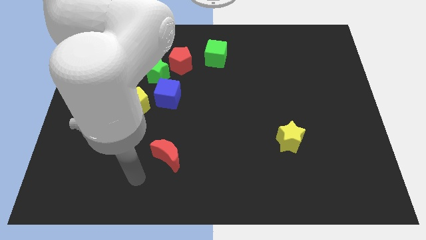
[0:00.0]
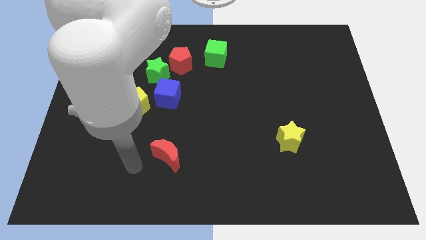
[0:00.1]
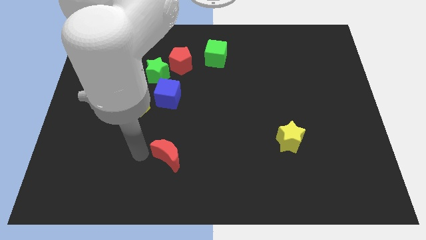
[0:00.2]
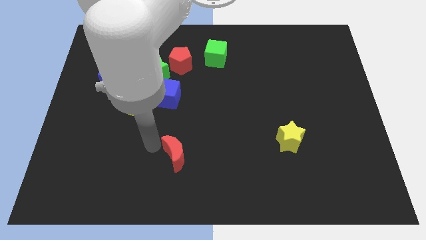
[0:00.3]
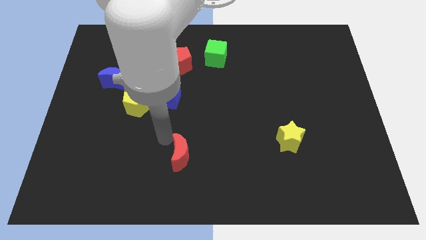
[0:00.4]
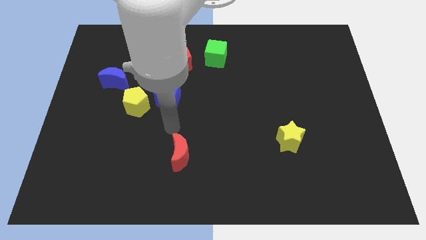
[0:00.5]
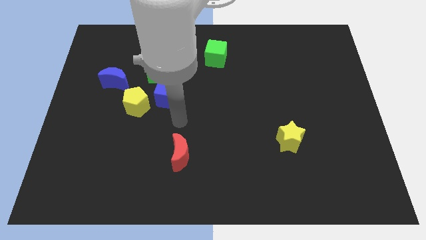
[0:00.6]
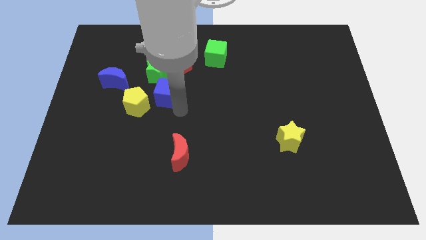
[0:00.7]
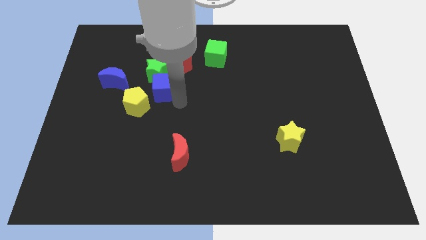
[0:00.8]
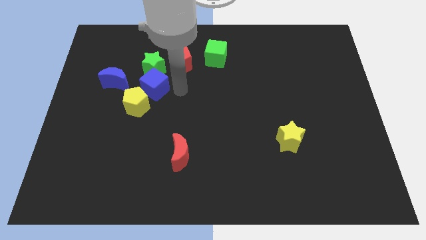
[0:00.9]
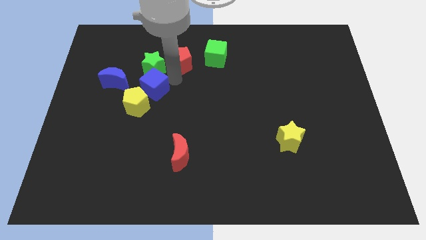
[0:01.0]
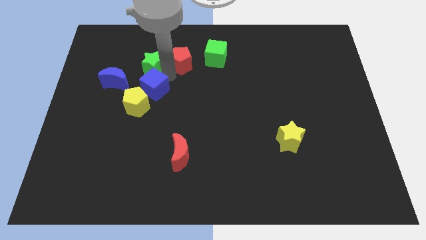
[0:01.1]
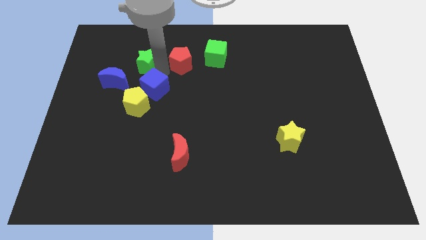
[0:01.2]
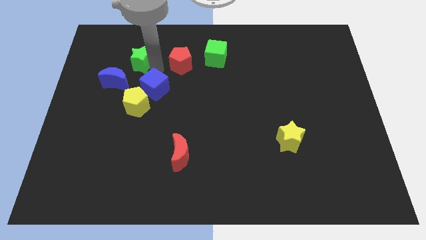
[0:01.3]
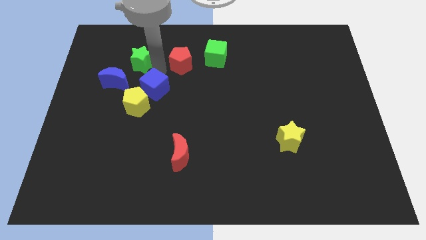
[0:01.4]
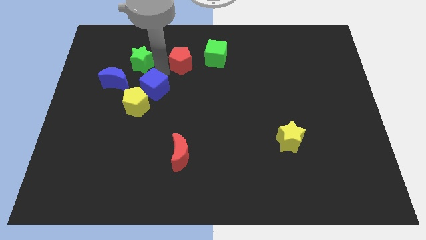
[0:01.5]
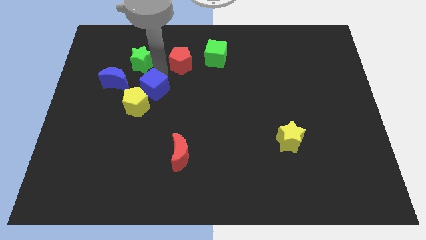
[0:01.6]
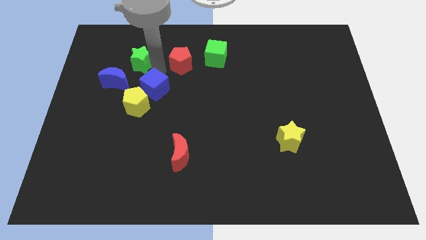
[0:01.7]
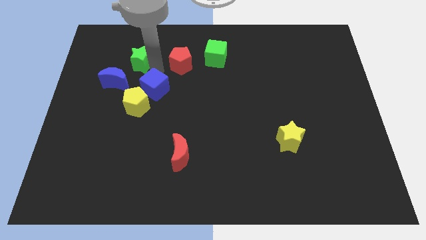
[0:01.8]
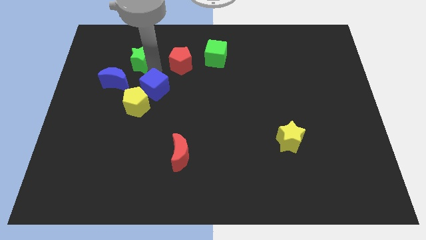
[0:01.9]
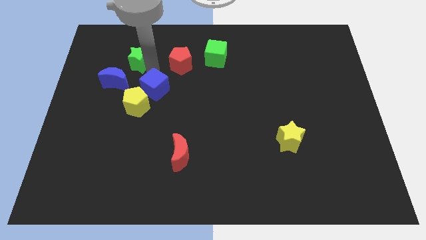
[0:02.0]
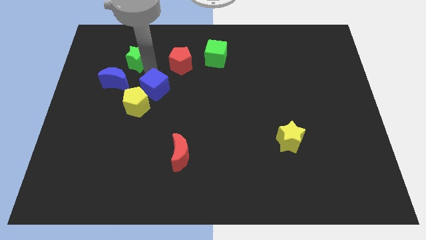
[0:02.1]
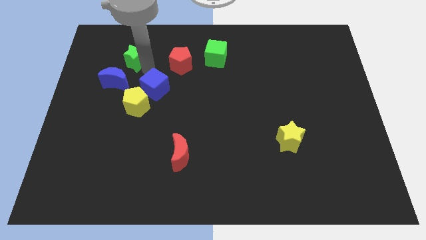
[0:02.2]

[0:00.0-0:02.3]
pull the green star apart from the red pentagon and blue cube

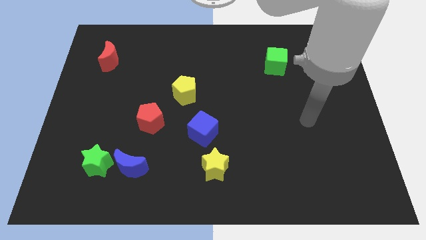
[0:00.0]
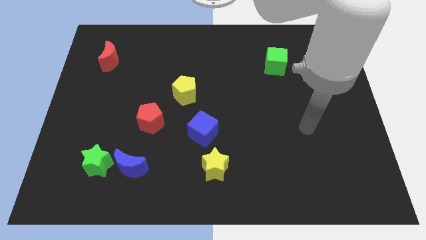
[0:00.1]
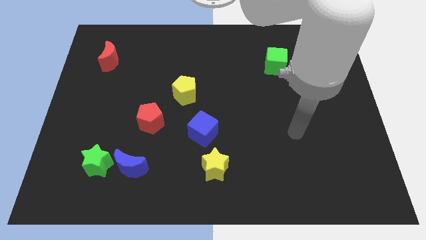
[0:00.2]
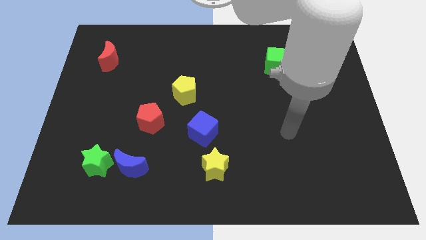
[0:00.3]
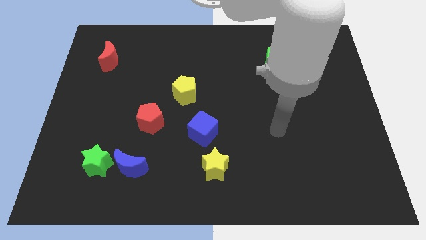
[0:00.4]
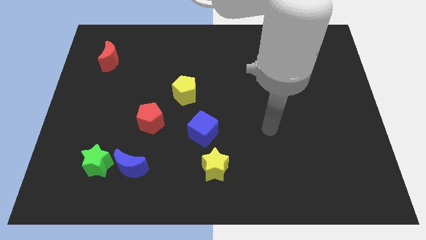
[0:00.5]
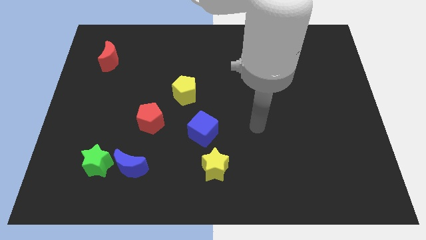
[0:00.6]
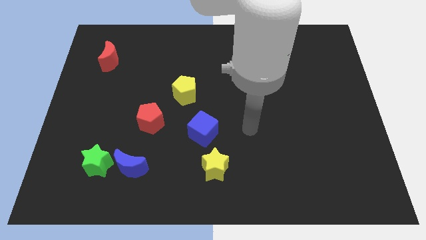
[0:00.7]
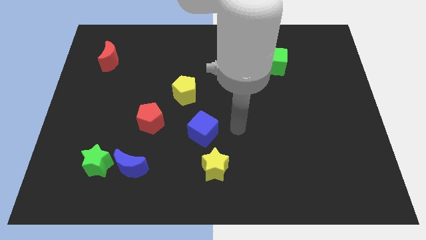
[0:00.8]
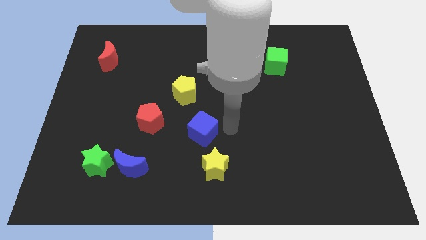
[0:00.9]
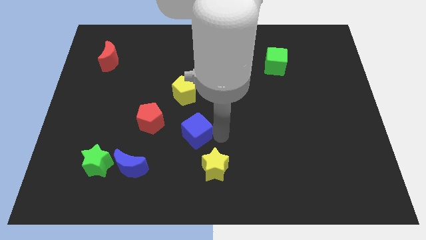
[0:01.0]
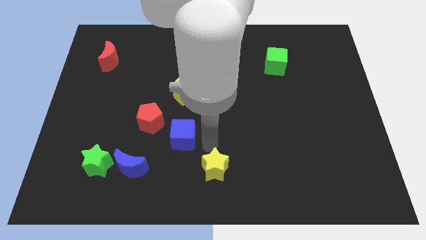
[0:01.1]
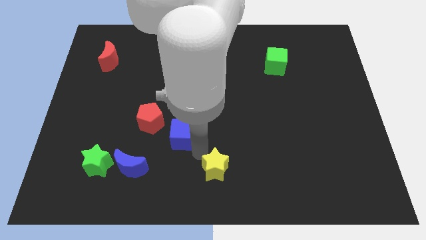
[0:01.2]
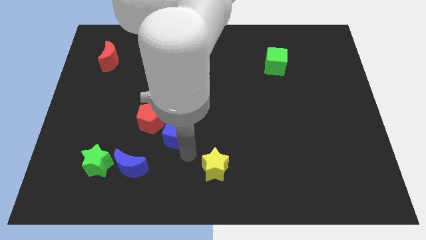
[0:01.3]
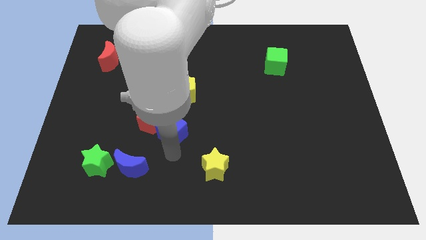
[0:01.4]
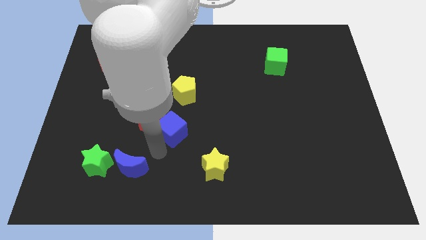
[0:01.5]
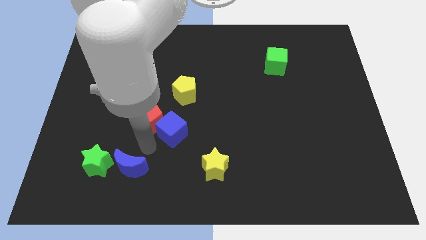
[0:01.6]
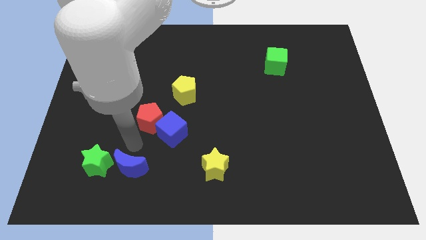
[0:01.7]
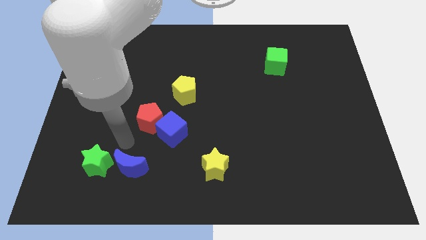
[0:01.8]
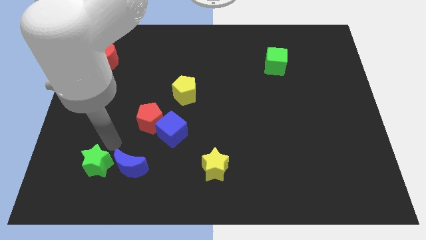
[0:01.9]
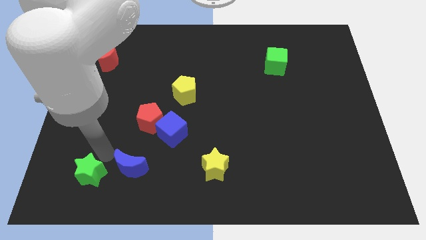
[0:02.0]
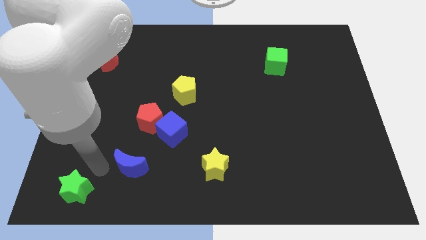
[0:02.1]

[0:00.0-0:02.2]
separate the blue moon from the green star

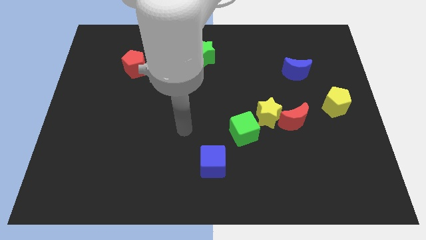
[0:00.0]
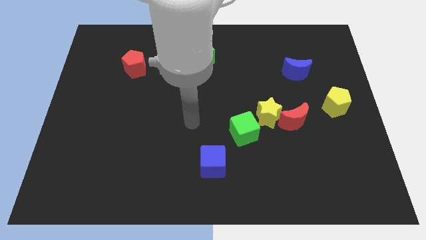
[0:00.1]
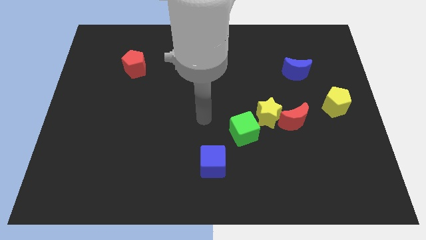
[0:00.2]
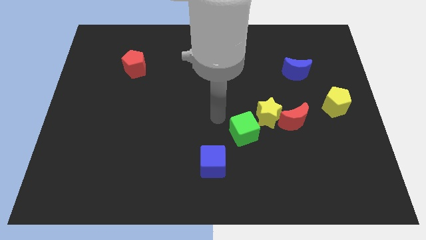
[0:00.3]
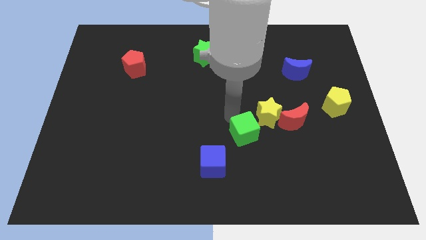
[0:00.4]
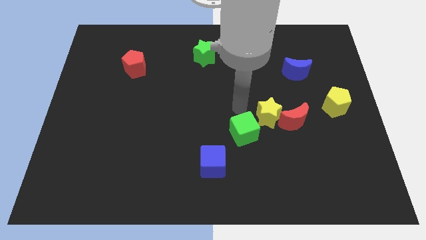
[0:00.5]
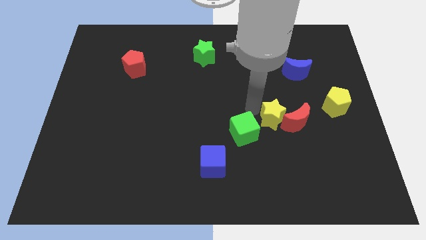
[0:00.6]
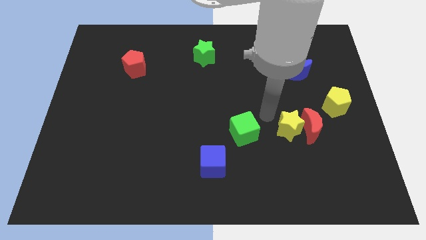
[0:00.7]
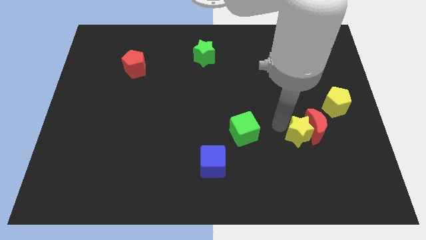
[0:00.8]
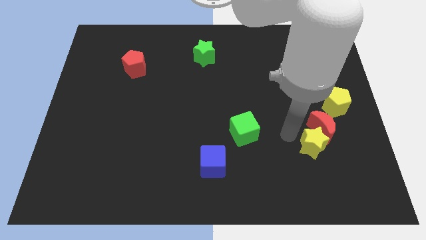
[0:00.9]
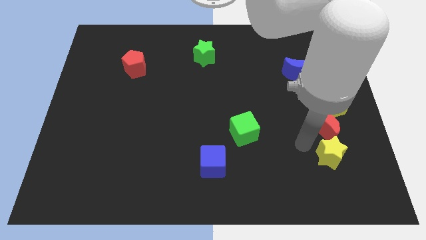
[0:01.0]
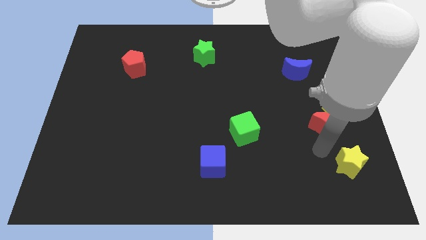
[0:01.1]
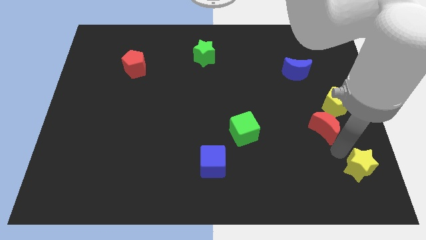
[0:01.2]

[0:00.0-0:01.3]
move the red moon away from the yellow star

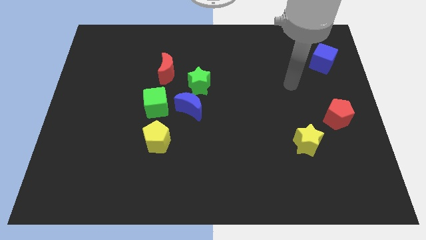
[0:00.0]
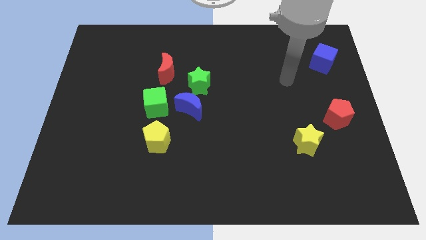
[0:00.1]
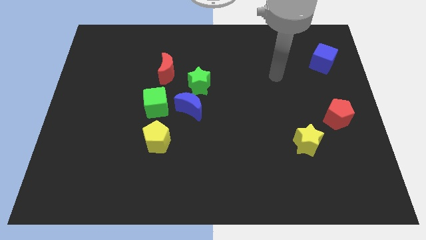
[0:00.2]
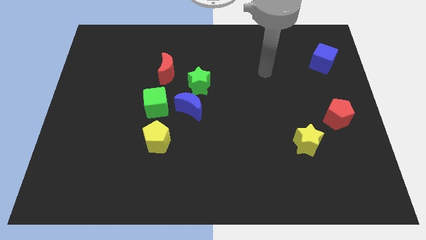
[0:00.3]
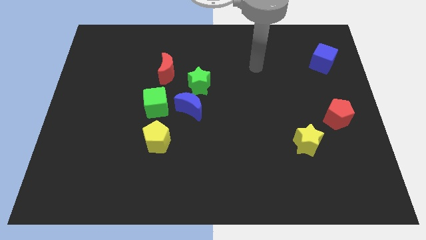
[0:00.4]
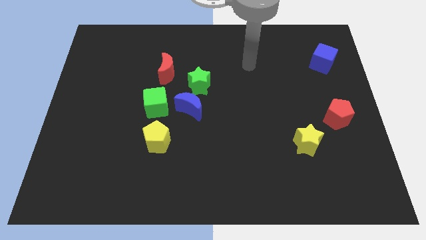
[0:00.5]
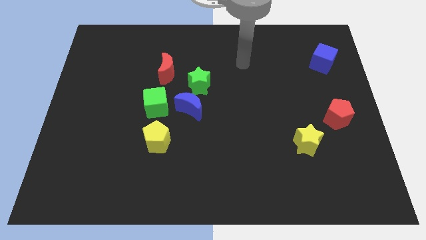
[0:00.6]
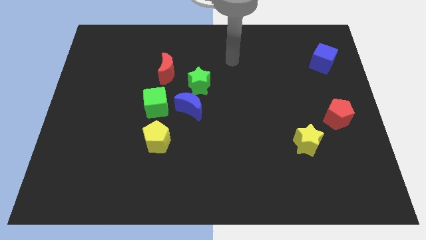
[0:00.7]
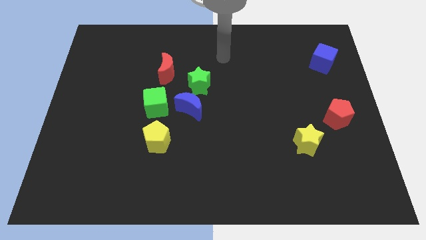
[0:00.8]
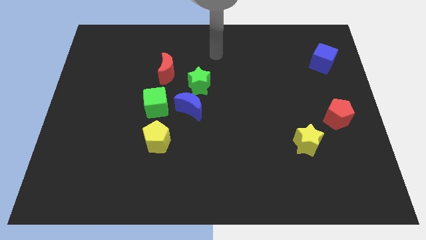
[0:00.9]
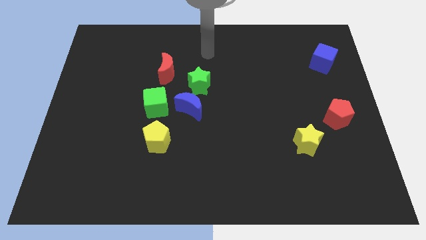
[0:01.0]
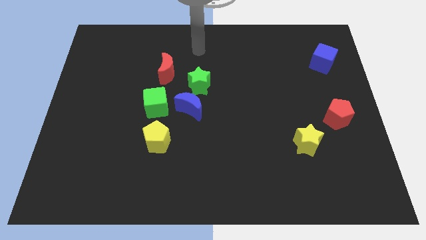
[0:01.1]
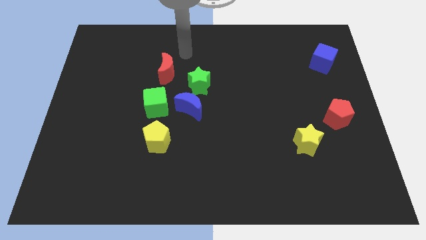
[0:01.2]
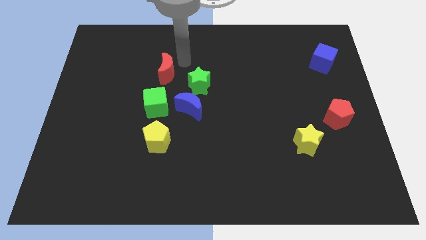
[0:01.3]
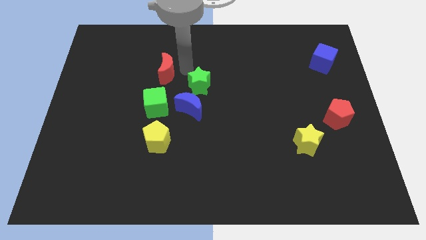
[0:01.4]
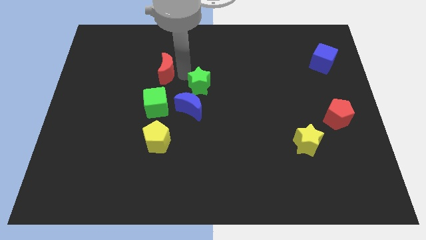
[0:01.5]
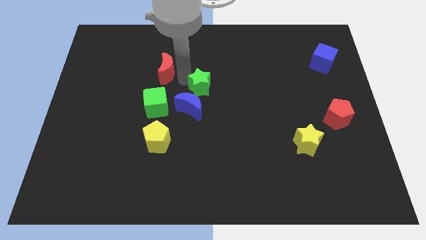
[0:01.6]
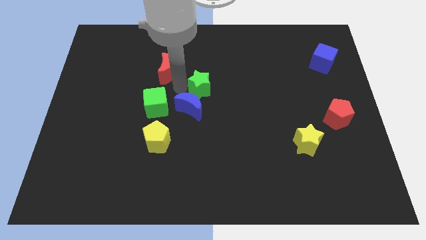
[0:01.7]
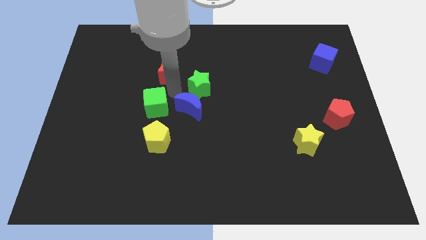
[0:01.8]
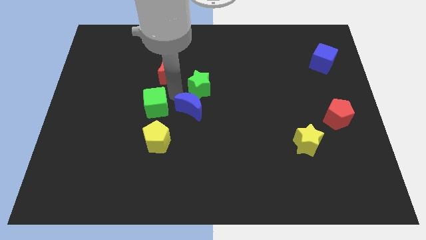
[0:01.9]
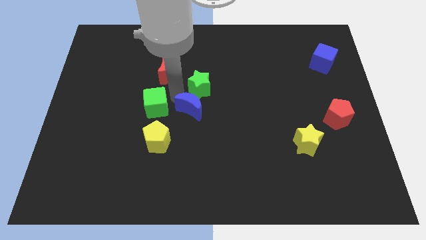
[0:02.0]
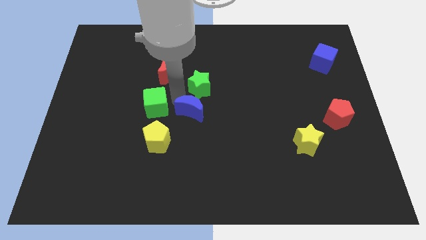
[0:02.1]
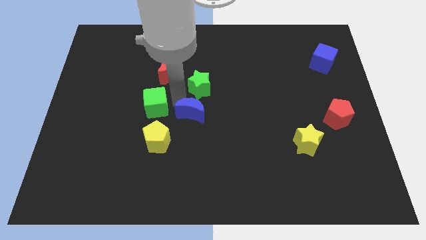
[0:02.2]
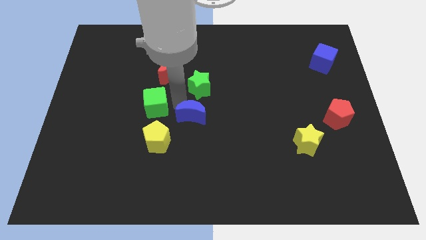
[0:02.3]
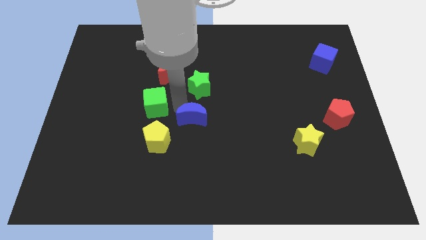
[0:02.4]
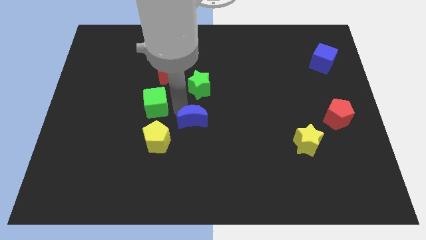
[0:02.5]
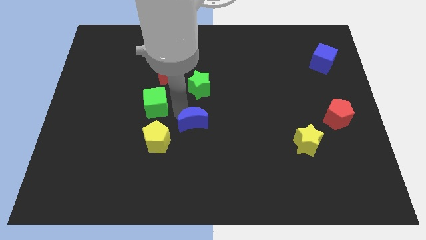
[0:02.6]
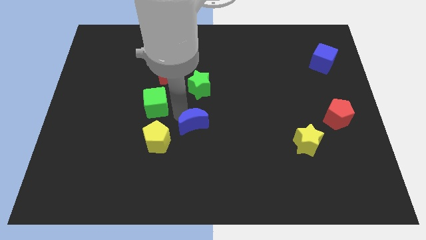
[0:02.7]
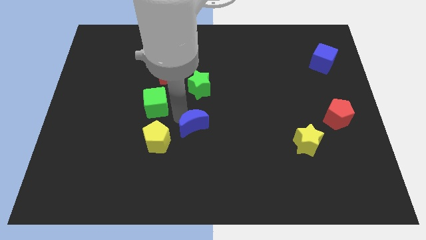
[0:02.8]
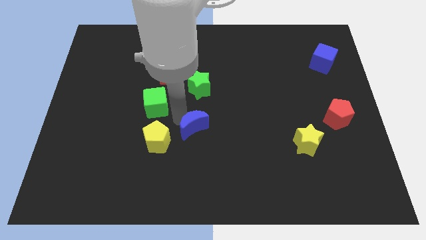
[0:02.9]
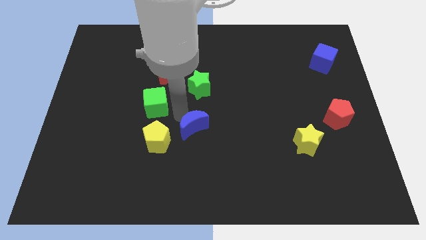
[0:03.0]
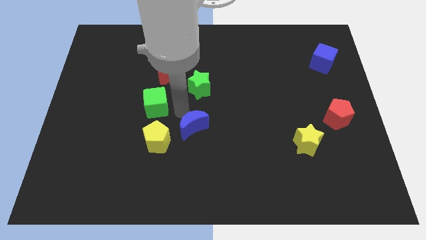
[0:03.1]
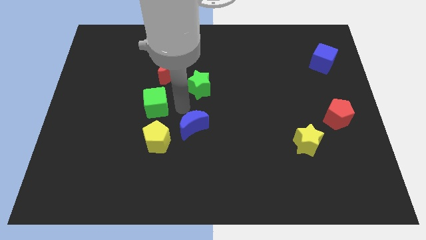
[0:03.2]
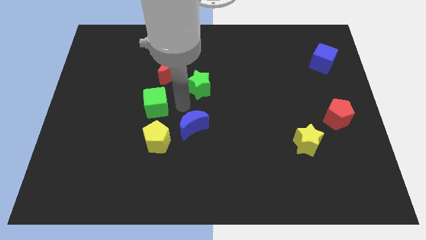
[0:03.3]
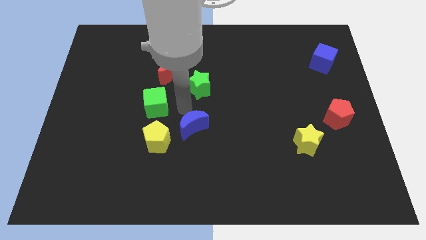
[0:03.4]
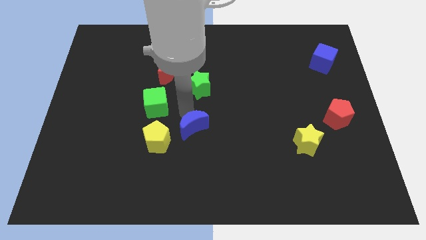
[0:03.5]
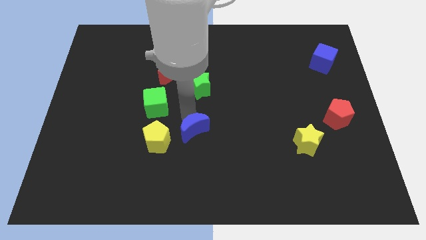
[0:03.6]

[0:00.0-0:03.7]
separate the blue moon from the green star and green cube
